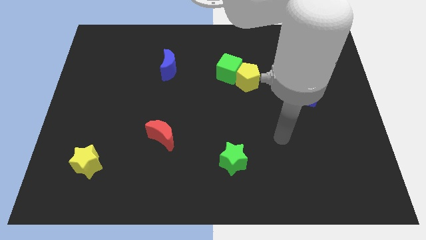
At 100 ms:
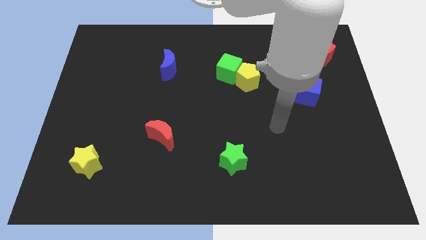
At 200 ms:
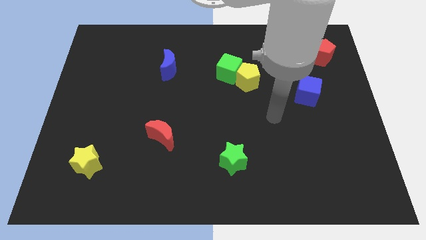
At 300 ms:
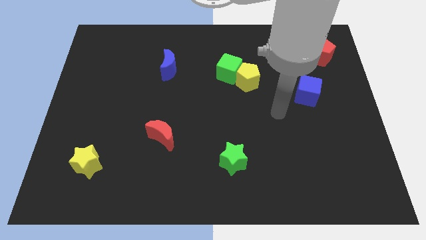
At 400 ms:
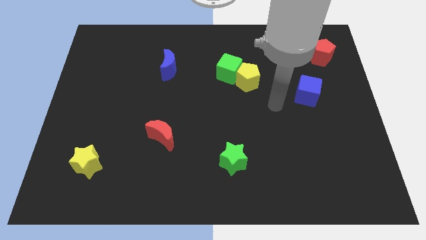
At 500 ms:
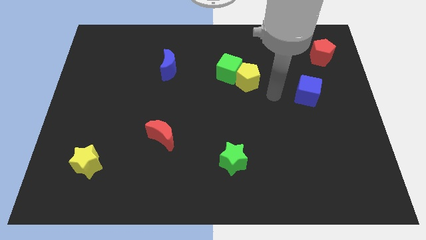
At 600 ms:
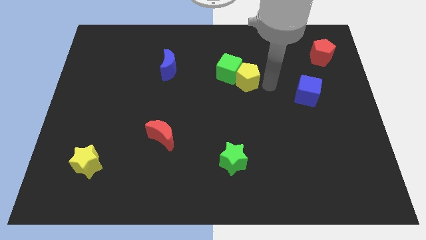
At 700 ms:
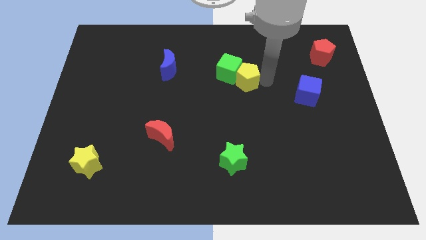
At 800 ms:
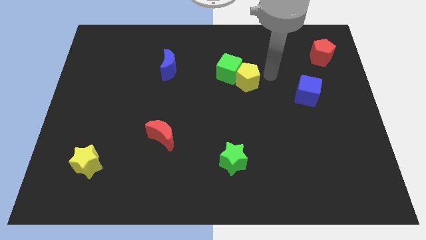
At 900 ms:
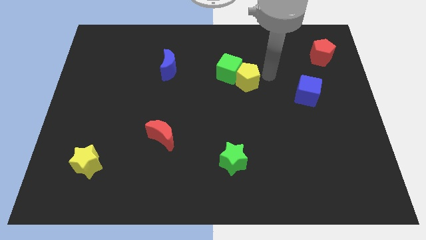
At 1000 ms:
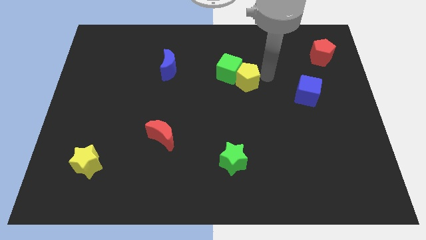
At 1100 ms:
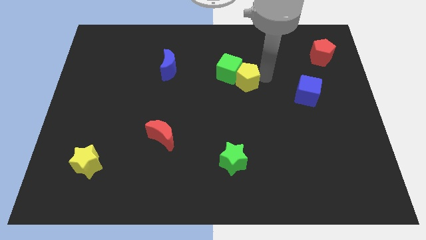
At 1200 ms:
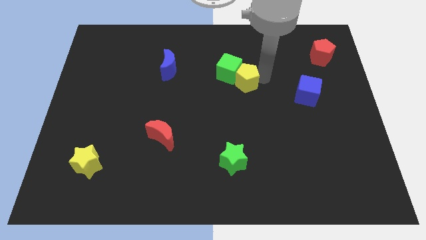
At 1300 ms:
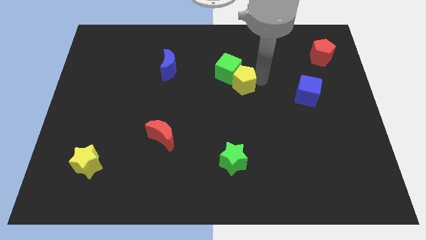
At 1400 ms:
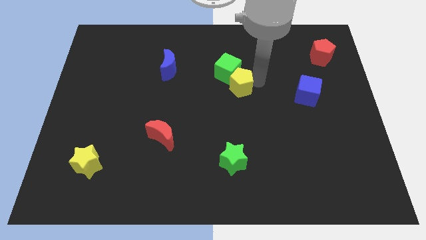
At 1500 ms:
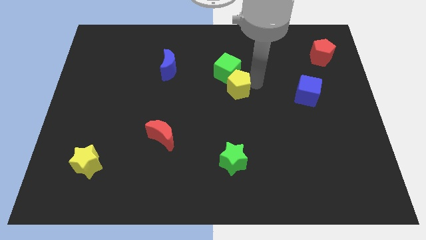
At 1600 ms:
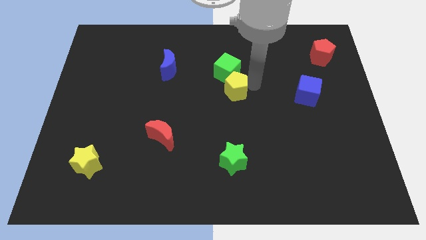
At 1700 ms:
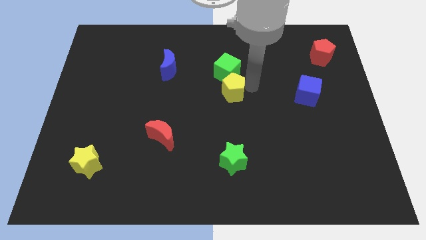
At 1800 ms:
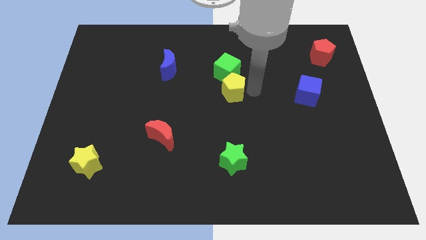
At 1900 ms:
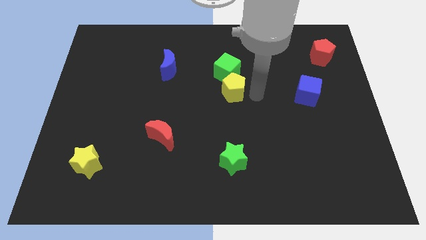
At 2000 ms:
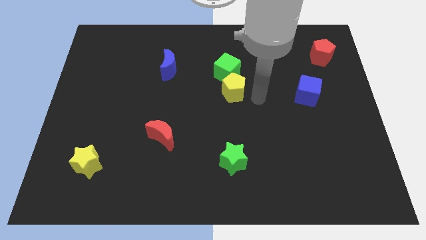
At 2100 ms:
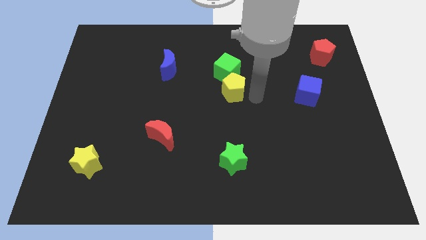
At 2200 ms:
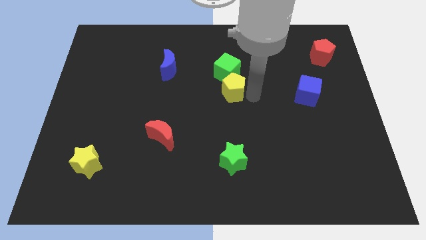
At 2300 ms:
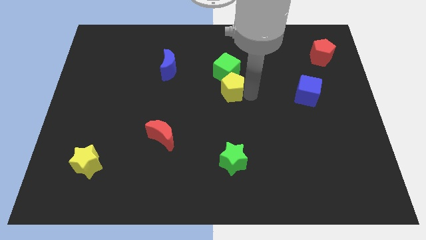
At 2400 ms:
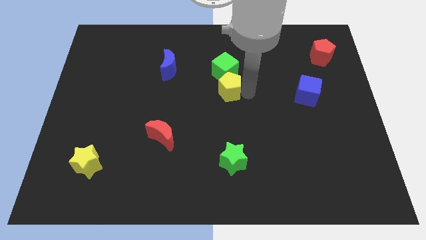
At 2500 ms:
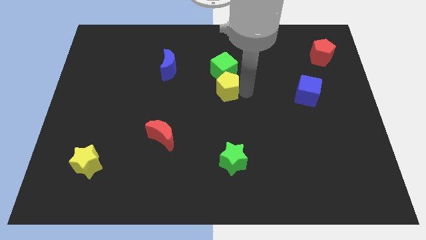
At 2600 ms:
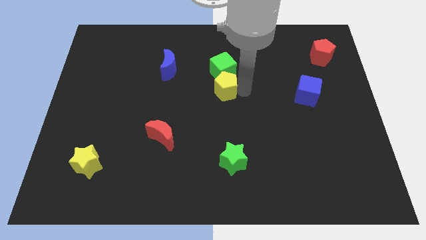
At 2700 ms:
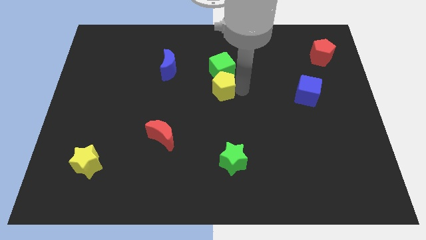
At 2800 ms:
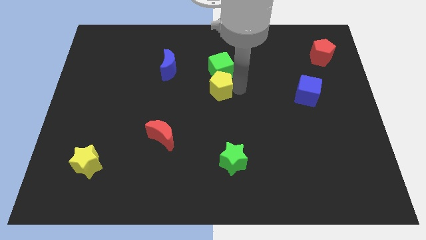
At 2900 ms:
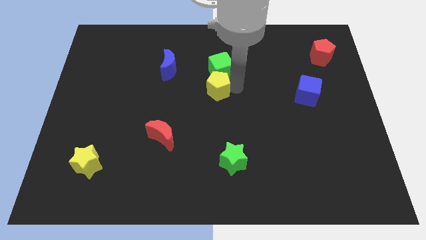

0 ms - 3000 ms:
move the yellow pentagon slightly left

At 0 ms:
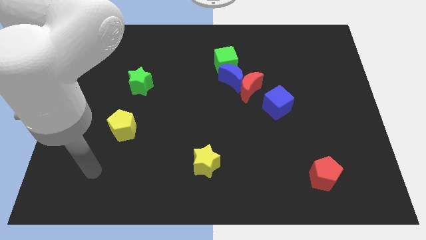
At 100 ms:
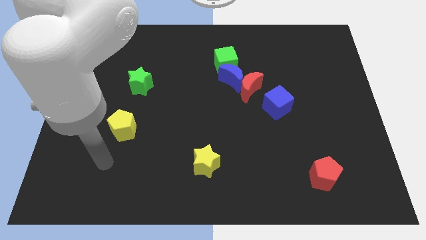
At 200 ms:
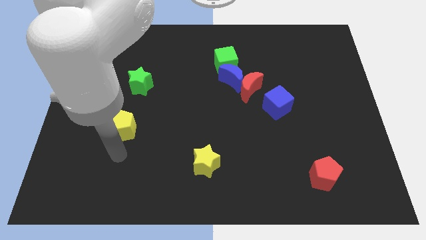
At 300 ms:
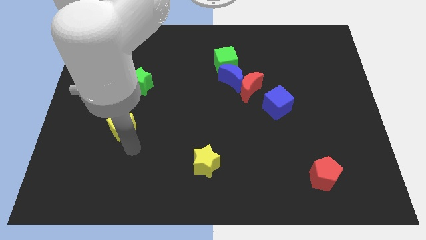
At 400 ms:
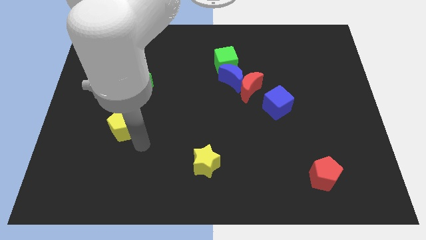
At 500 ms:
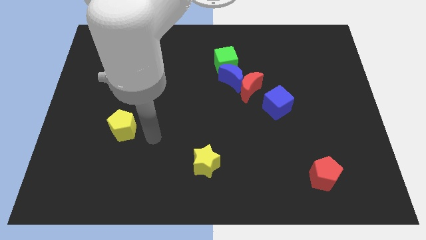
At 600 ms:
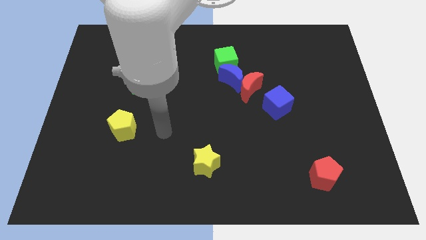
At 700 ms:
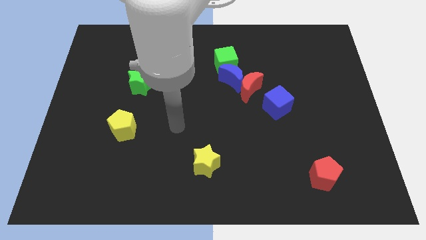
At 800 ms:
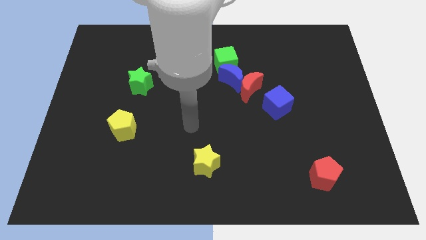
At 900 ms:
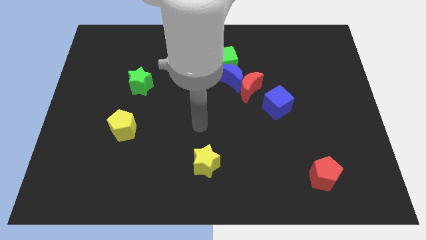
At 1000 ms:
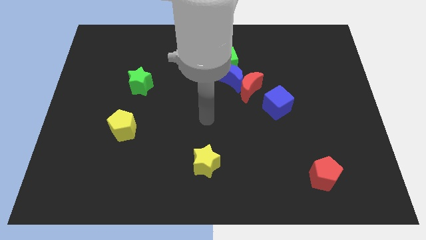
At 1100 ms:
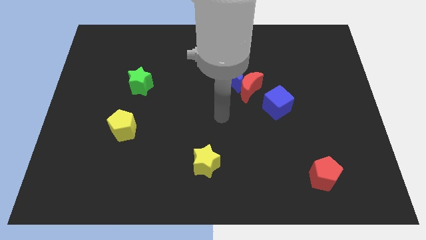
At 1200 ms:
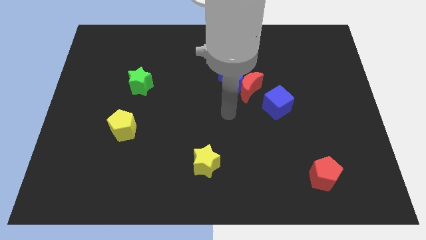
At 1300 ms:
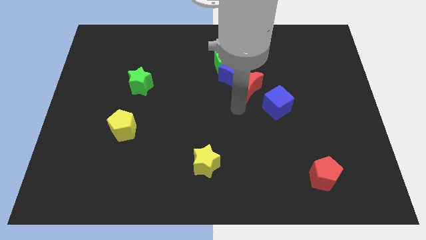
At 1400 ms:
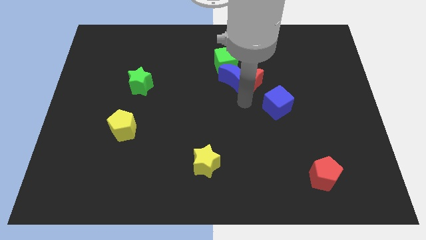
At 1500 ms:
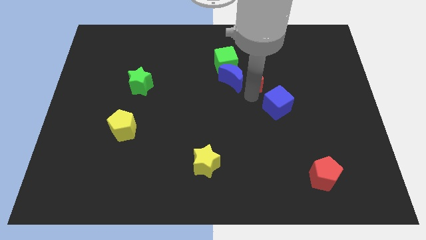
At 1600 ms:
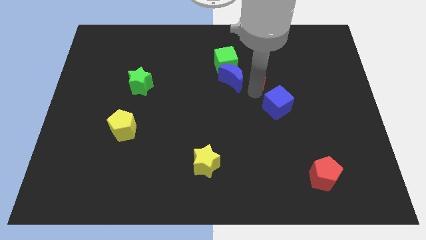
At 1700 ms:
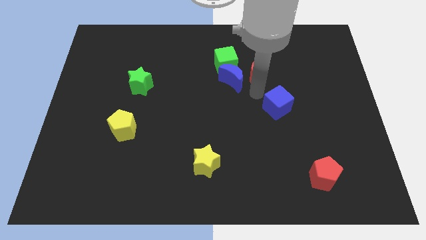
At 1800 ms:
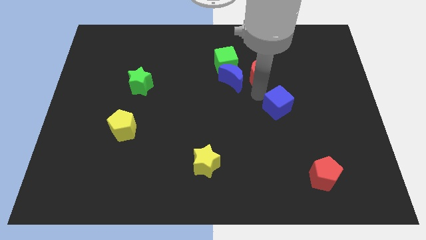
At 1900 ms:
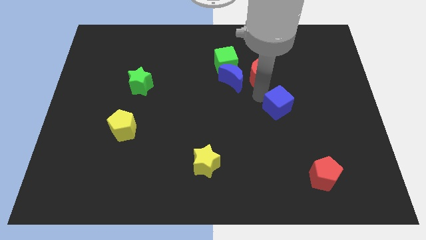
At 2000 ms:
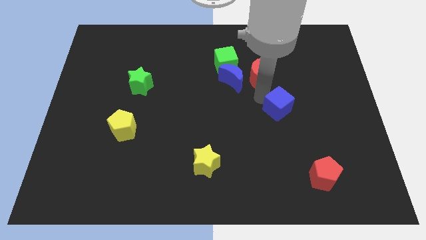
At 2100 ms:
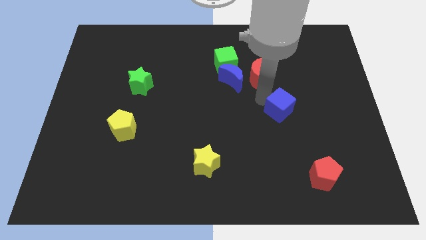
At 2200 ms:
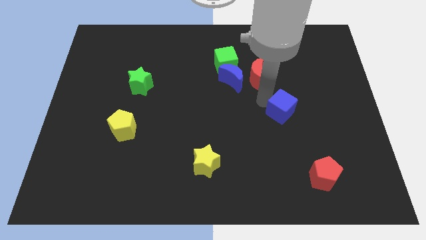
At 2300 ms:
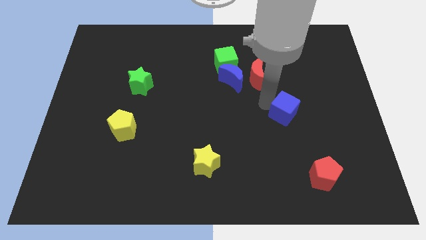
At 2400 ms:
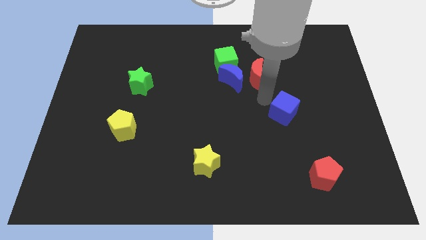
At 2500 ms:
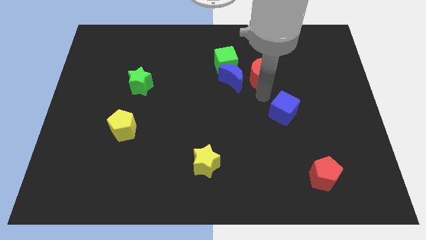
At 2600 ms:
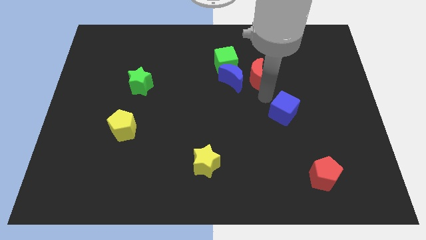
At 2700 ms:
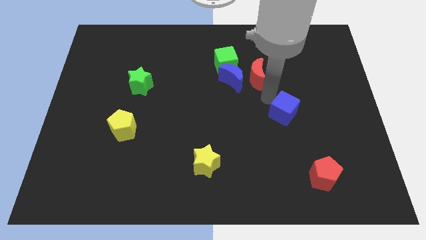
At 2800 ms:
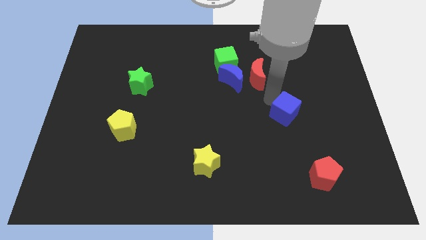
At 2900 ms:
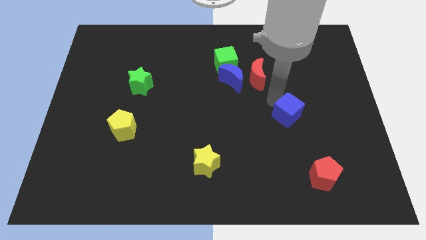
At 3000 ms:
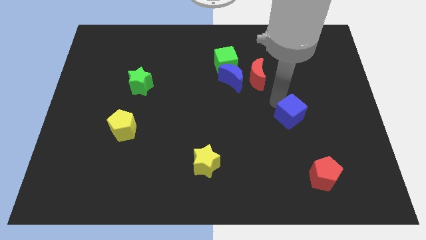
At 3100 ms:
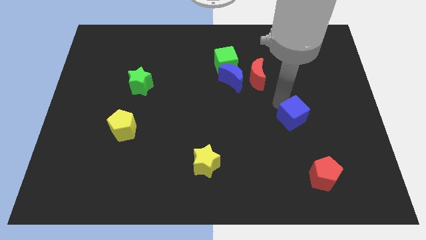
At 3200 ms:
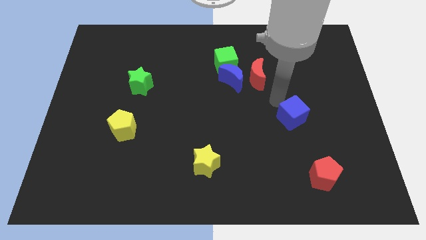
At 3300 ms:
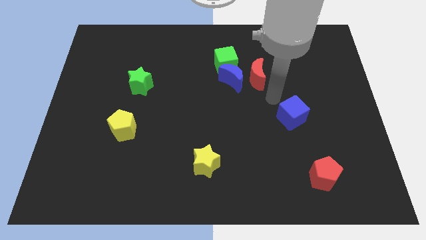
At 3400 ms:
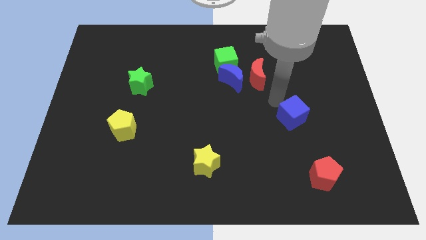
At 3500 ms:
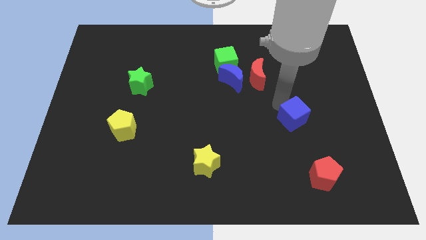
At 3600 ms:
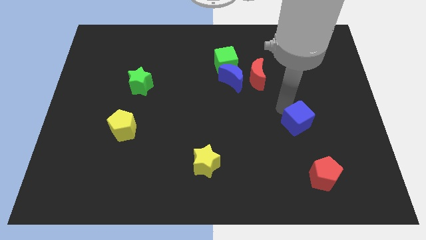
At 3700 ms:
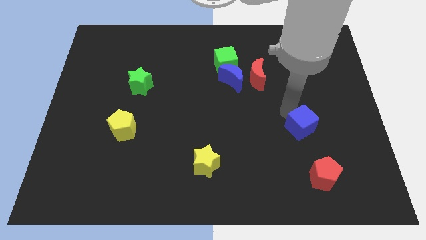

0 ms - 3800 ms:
slide the blue cube a little down and then to the right

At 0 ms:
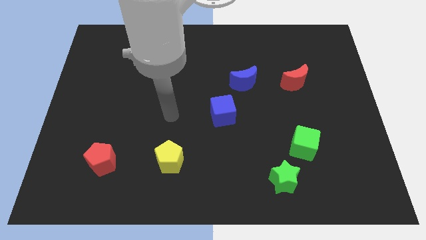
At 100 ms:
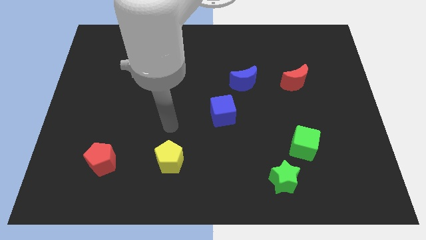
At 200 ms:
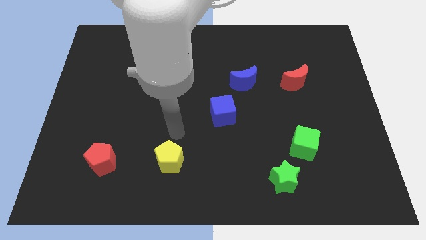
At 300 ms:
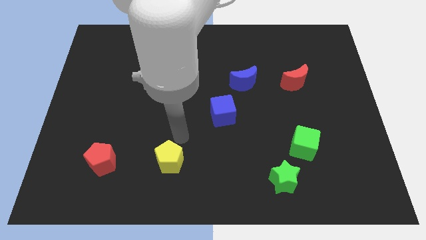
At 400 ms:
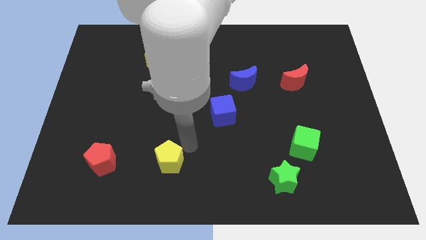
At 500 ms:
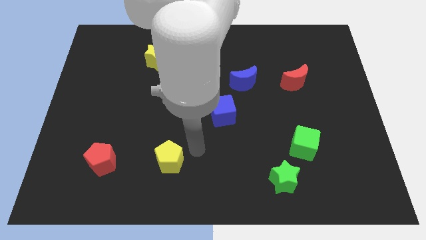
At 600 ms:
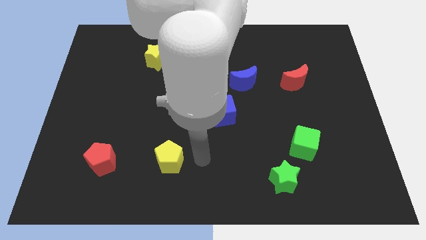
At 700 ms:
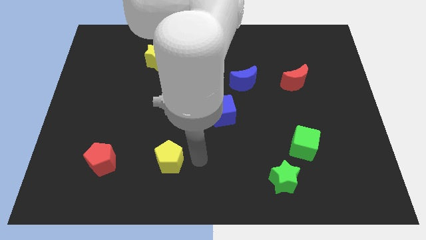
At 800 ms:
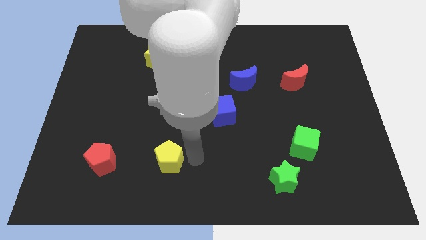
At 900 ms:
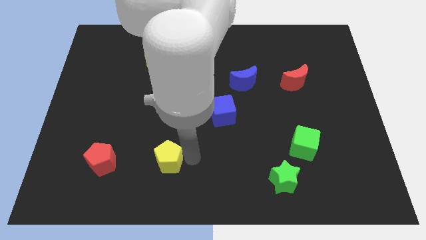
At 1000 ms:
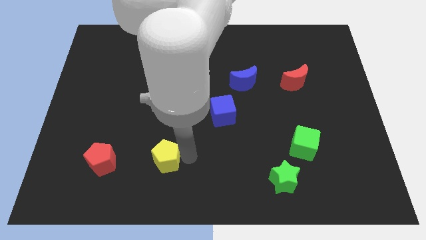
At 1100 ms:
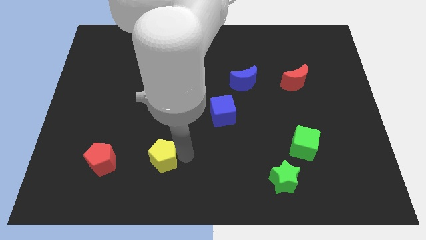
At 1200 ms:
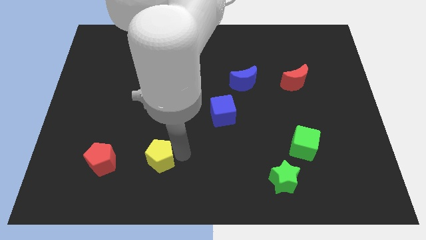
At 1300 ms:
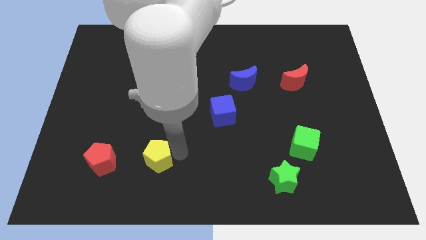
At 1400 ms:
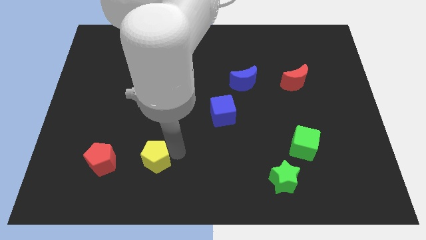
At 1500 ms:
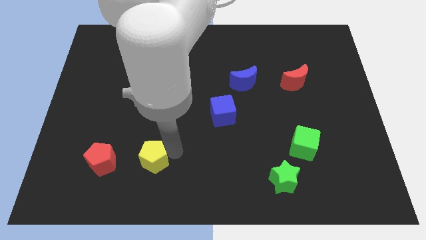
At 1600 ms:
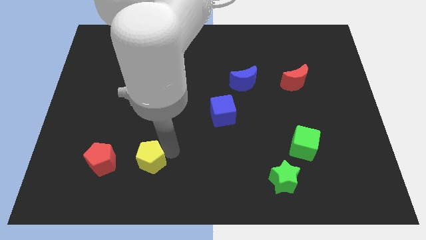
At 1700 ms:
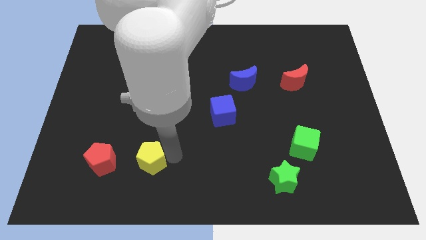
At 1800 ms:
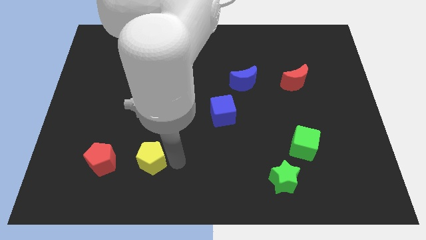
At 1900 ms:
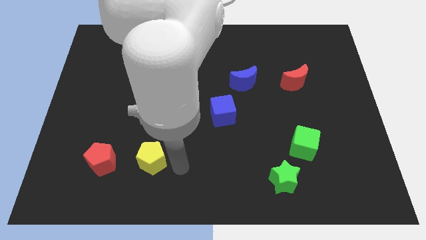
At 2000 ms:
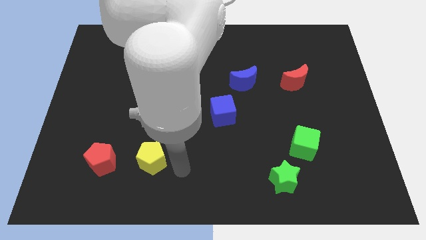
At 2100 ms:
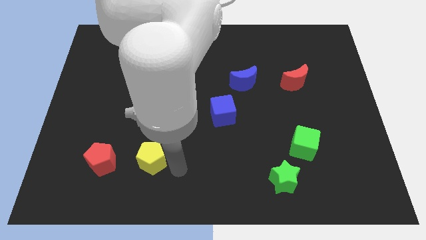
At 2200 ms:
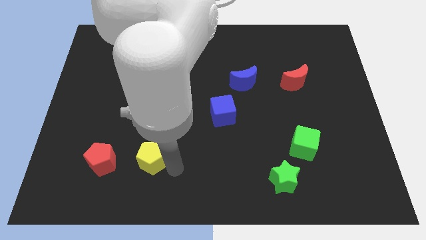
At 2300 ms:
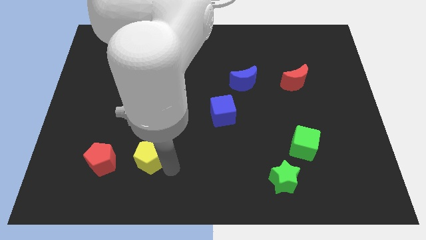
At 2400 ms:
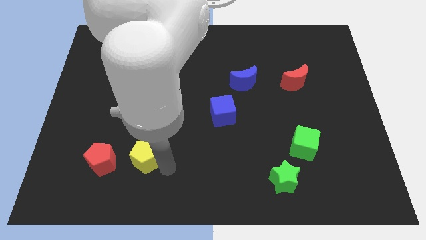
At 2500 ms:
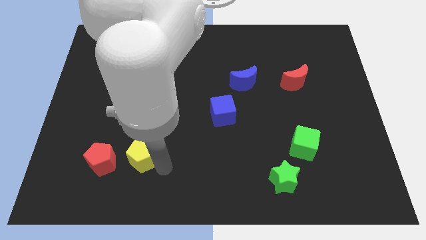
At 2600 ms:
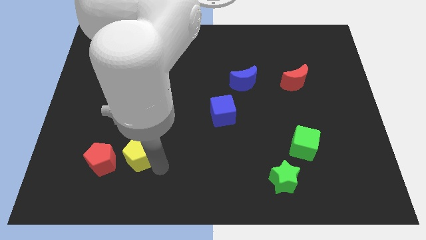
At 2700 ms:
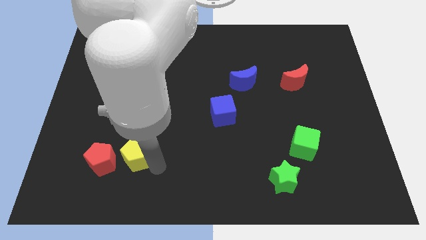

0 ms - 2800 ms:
push the yellow pentagon a little bit to the left
